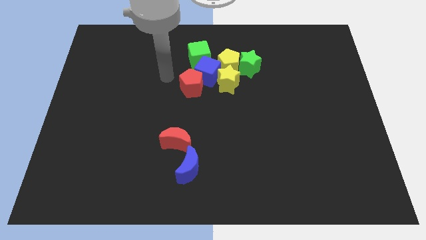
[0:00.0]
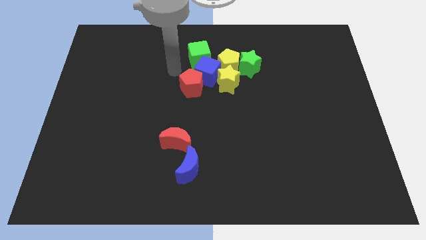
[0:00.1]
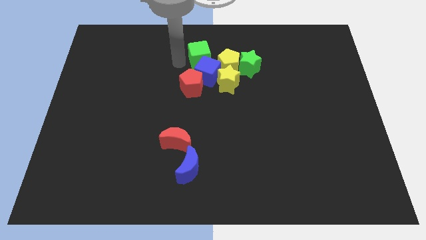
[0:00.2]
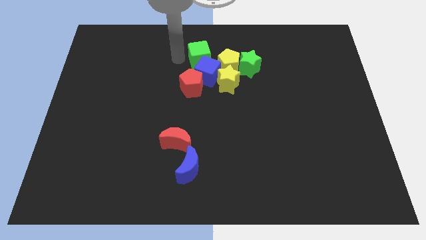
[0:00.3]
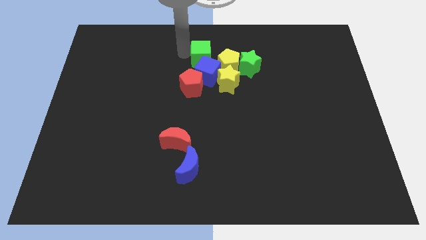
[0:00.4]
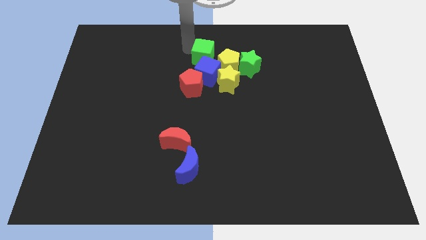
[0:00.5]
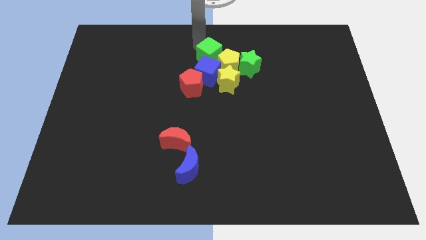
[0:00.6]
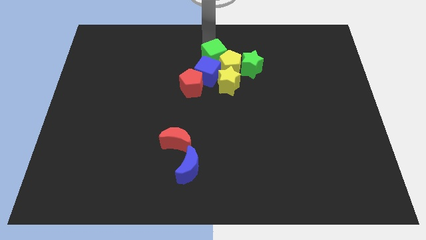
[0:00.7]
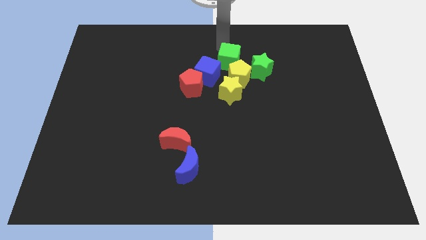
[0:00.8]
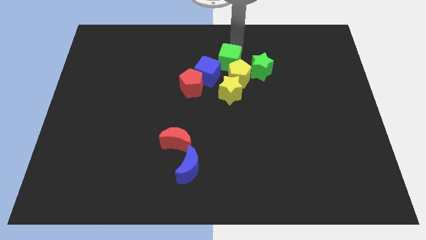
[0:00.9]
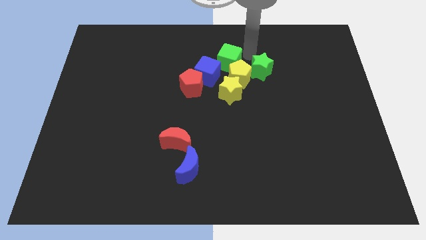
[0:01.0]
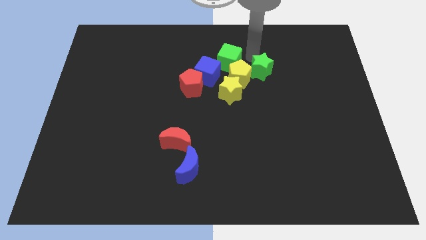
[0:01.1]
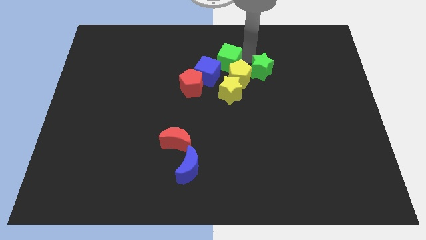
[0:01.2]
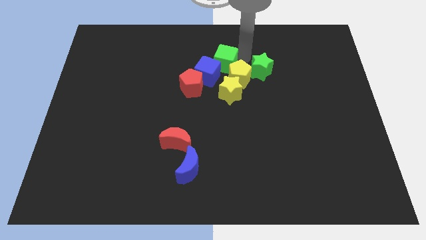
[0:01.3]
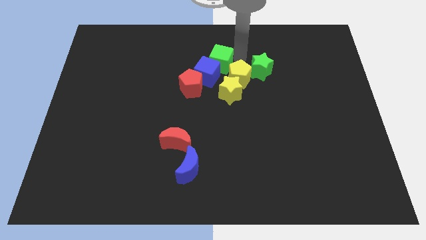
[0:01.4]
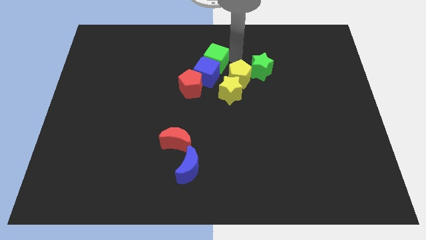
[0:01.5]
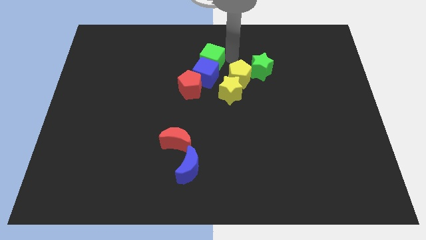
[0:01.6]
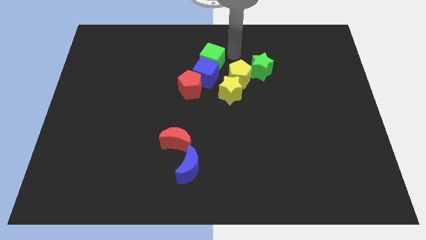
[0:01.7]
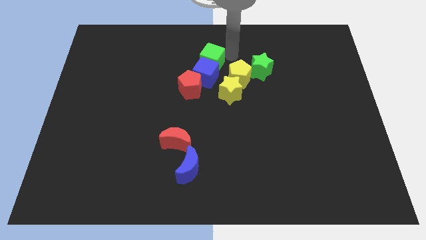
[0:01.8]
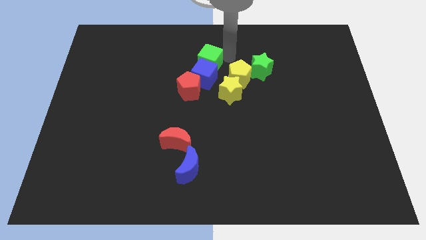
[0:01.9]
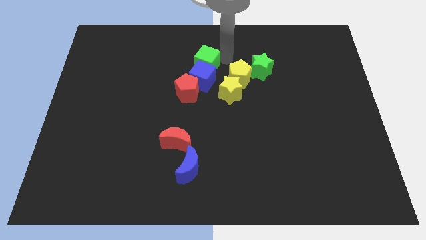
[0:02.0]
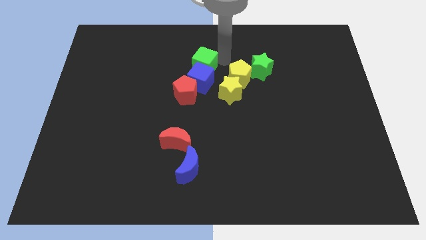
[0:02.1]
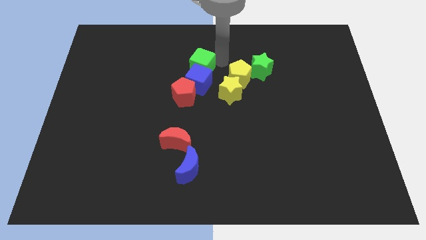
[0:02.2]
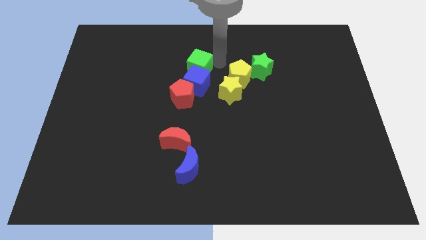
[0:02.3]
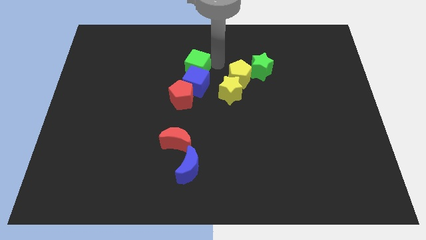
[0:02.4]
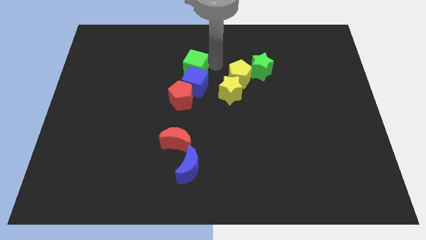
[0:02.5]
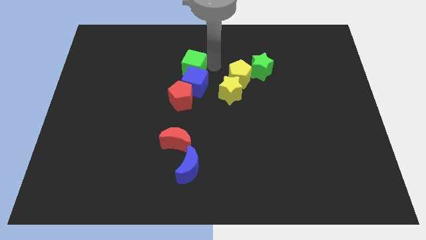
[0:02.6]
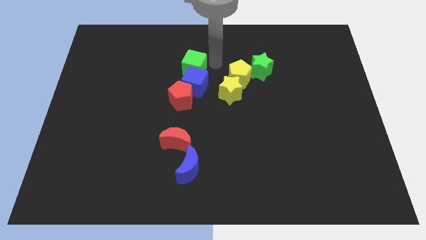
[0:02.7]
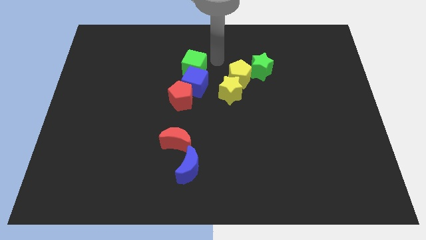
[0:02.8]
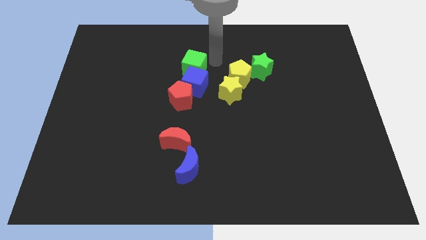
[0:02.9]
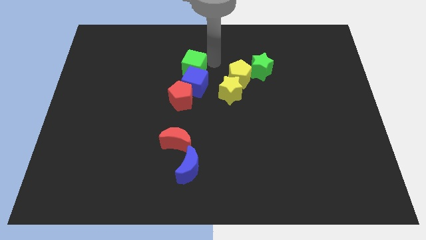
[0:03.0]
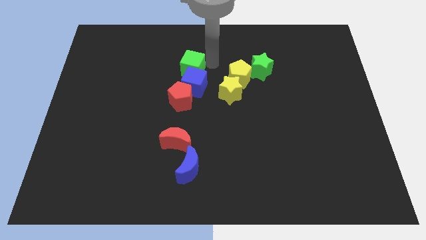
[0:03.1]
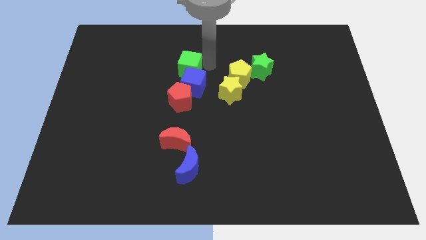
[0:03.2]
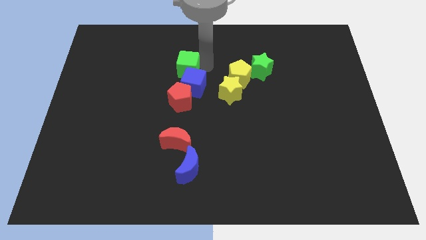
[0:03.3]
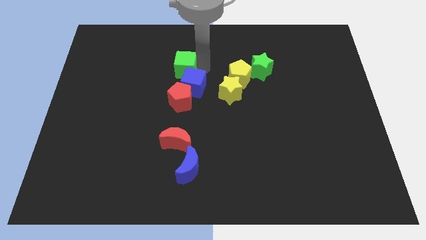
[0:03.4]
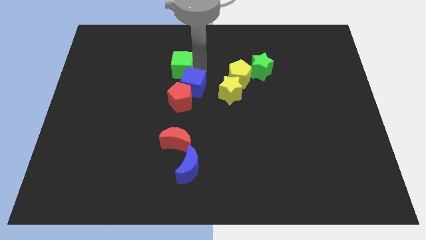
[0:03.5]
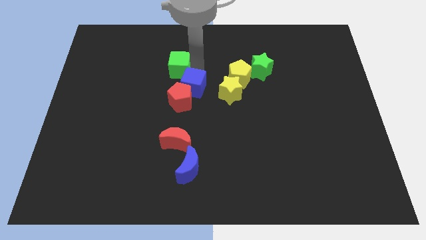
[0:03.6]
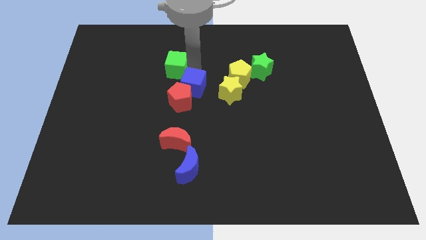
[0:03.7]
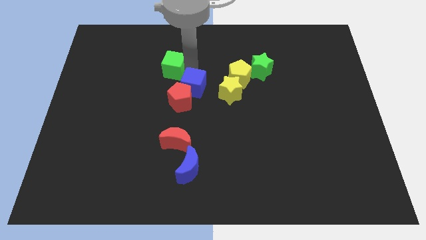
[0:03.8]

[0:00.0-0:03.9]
slide the green cube somewhat diagonally downwards and to the left

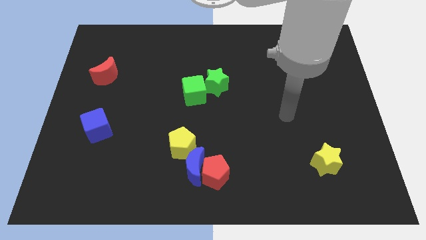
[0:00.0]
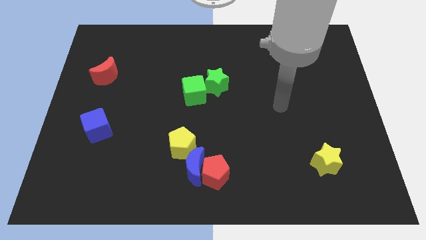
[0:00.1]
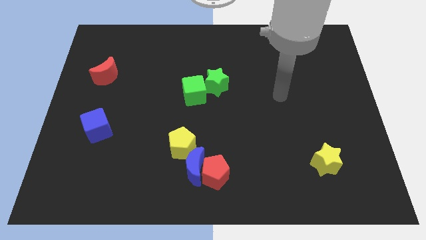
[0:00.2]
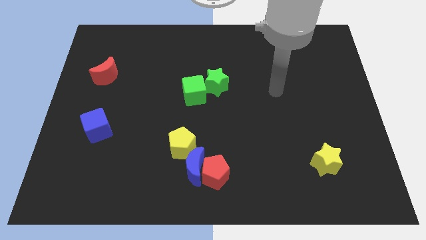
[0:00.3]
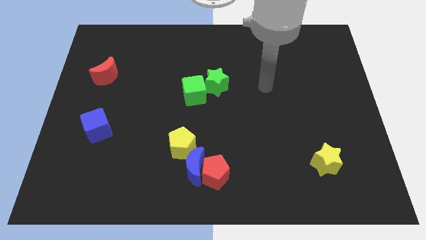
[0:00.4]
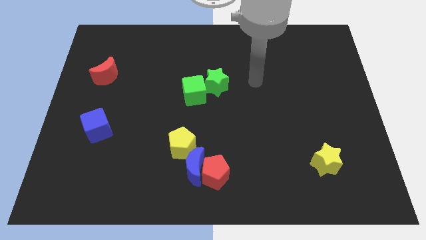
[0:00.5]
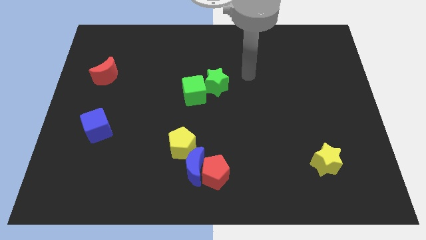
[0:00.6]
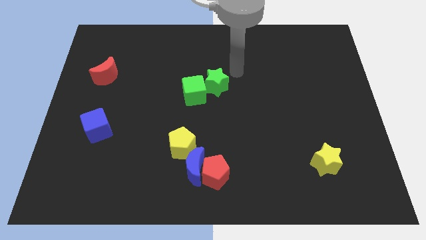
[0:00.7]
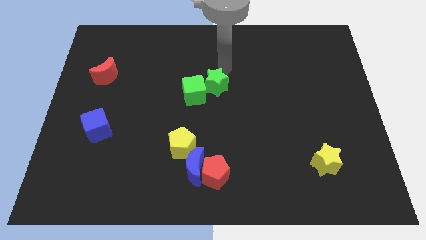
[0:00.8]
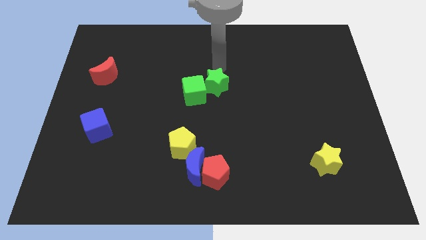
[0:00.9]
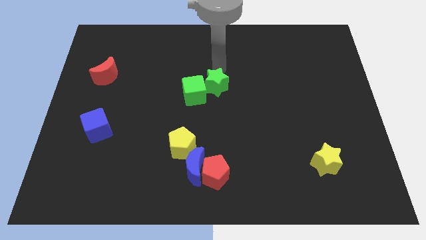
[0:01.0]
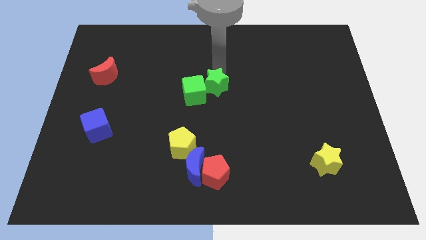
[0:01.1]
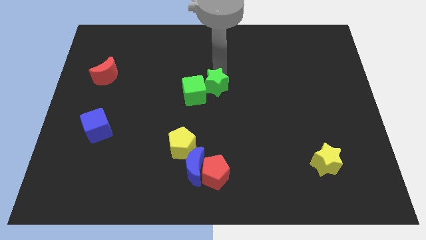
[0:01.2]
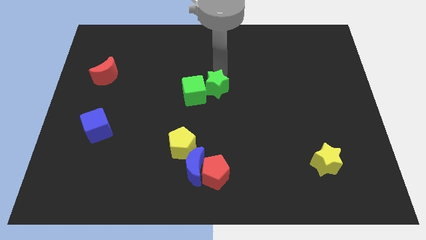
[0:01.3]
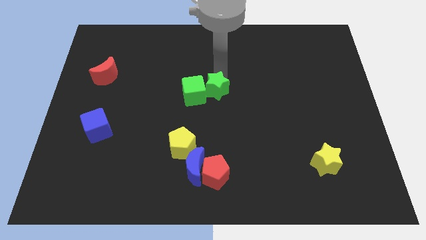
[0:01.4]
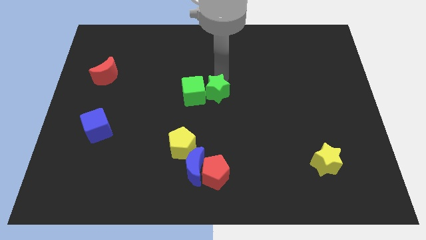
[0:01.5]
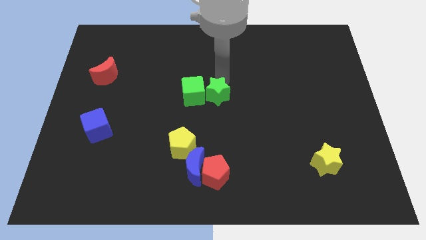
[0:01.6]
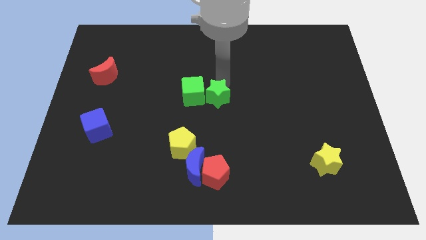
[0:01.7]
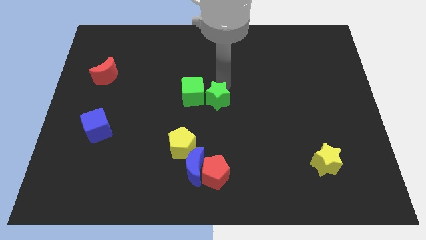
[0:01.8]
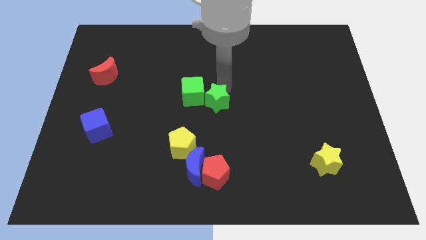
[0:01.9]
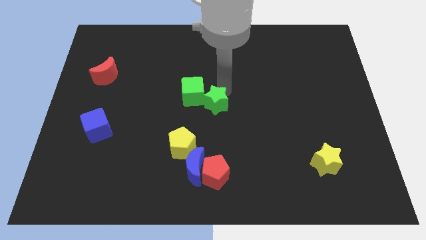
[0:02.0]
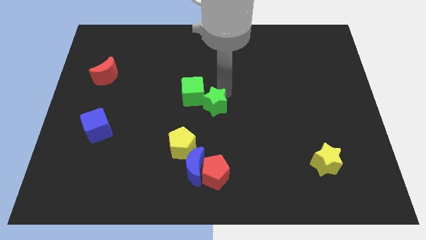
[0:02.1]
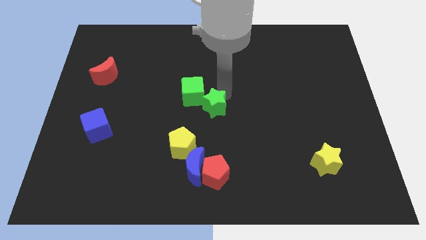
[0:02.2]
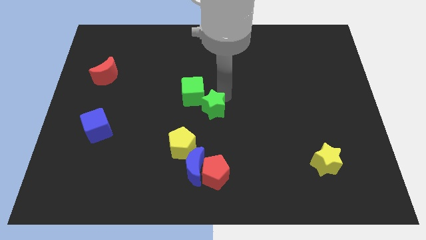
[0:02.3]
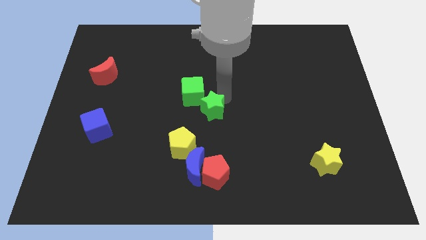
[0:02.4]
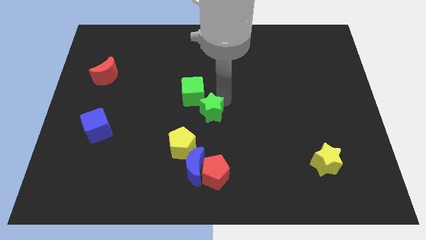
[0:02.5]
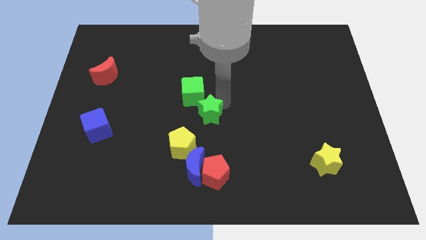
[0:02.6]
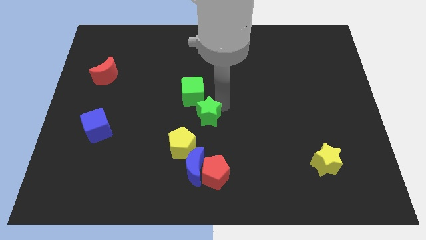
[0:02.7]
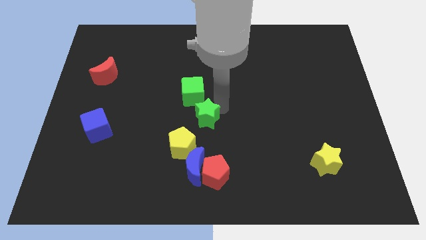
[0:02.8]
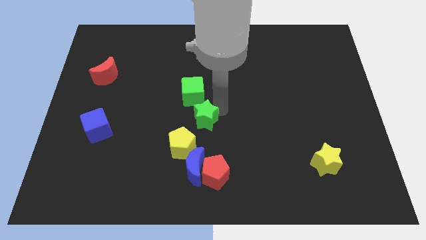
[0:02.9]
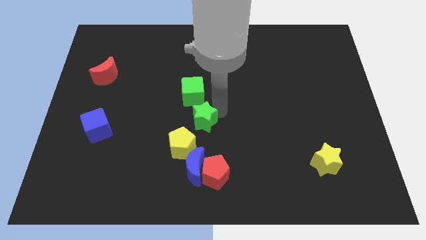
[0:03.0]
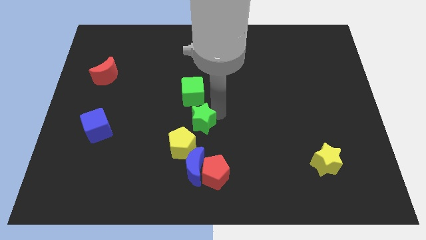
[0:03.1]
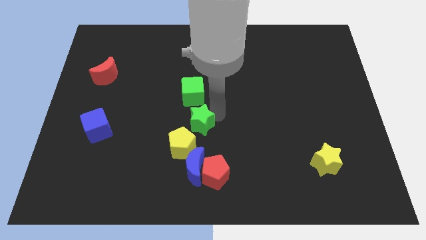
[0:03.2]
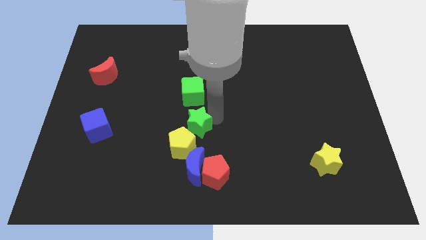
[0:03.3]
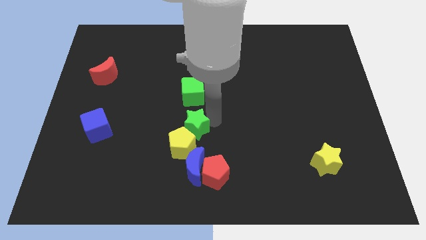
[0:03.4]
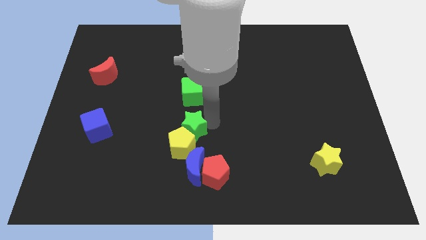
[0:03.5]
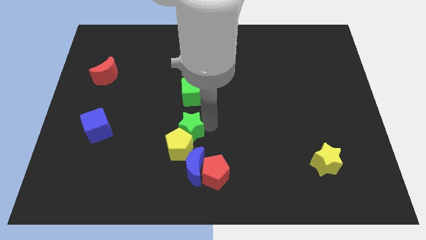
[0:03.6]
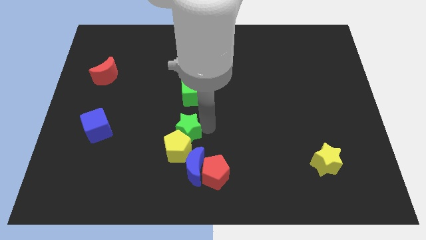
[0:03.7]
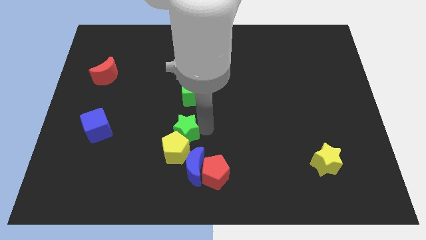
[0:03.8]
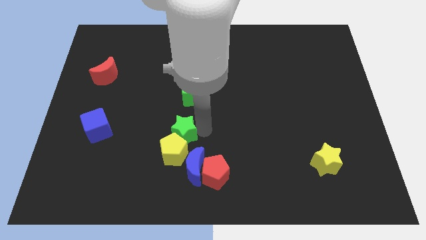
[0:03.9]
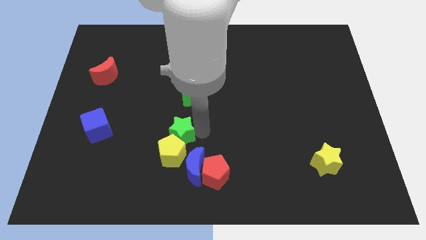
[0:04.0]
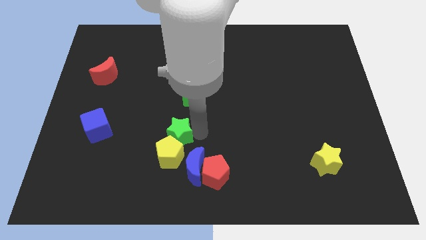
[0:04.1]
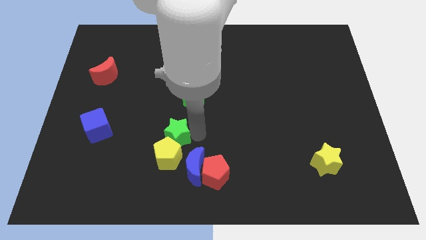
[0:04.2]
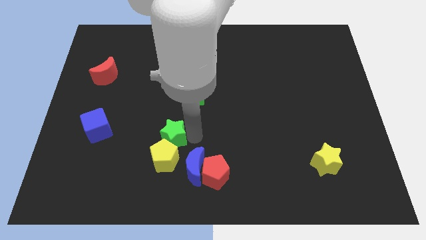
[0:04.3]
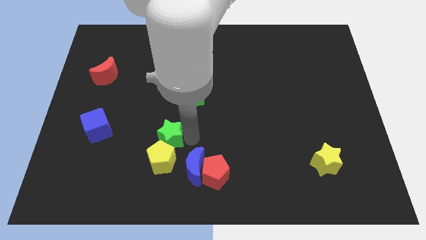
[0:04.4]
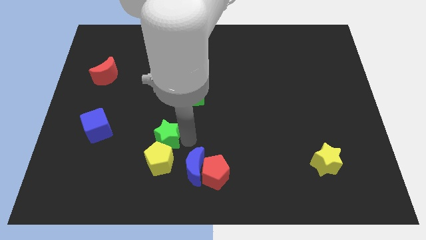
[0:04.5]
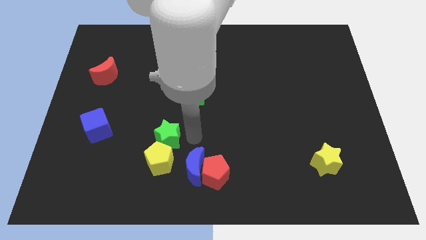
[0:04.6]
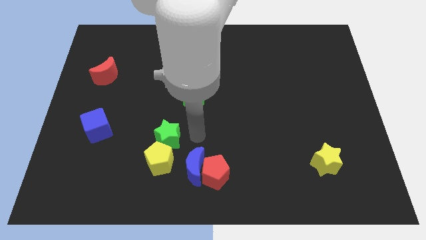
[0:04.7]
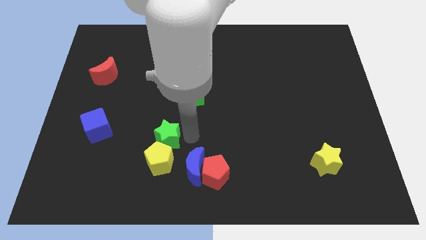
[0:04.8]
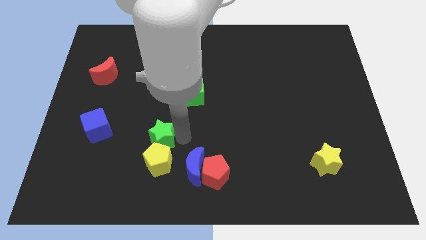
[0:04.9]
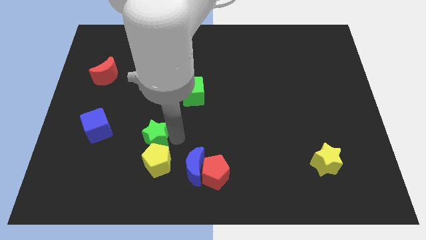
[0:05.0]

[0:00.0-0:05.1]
move the green star downwards and then left
